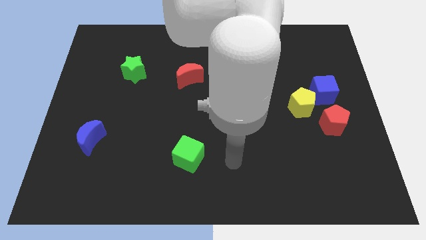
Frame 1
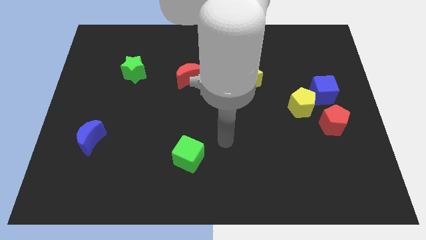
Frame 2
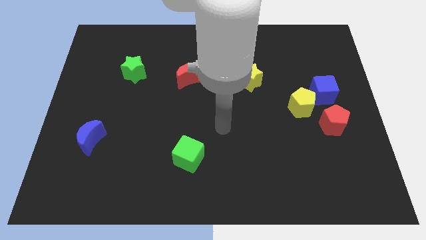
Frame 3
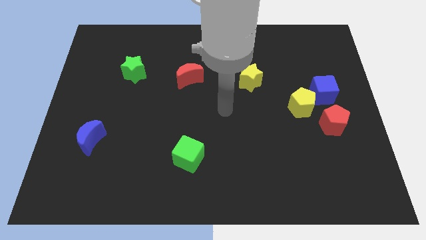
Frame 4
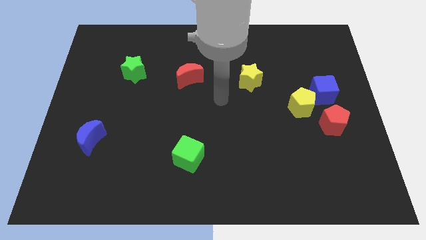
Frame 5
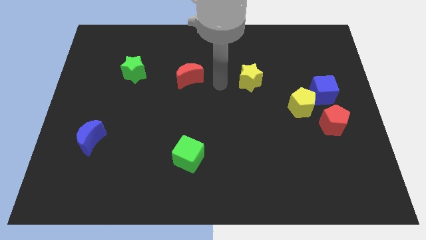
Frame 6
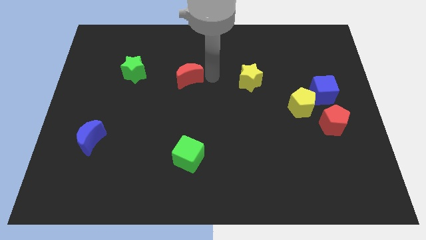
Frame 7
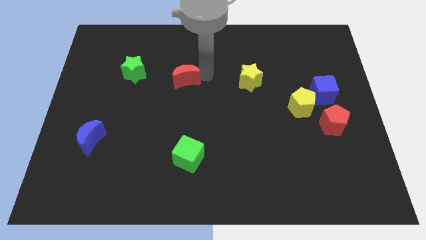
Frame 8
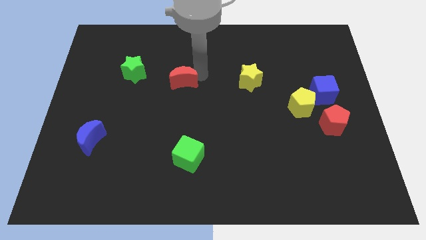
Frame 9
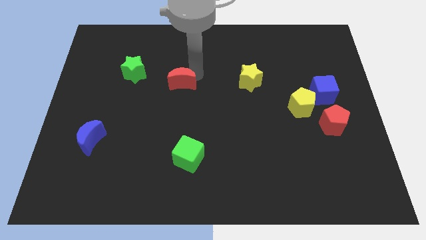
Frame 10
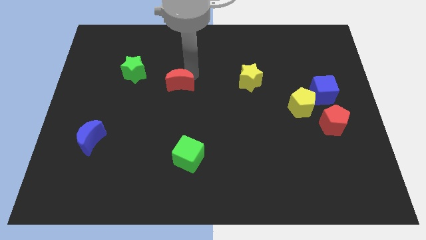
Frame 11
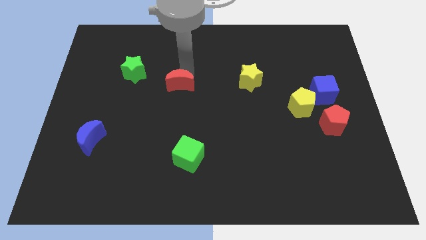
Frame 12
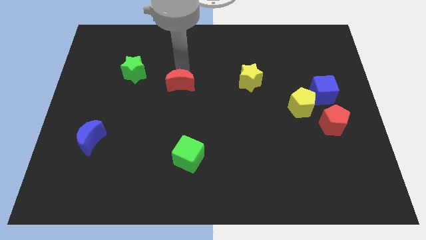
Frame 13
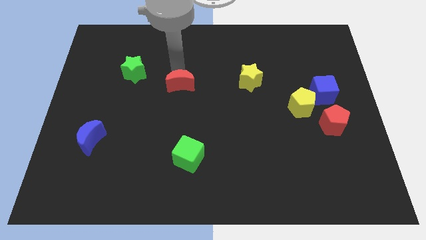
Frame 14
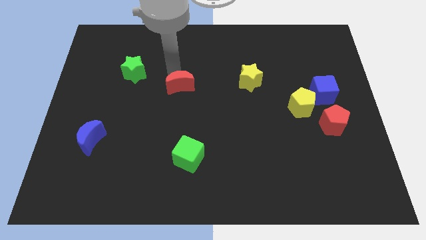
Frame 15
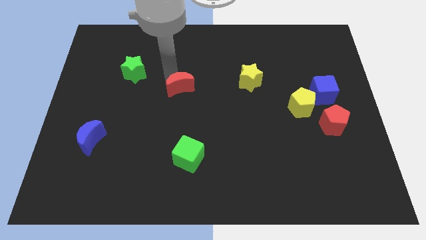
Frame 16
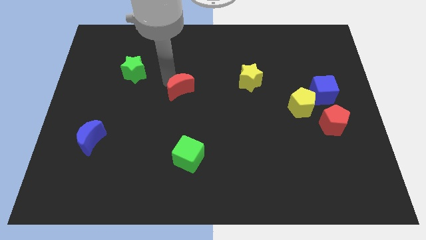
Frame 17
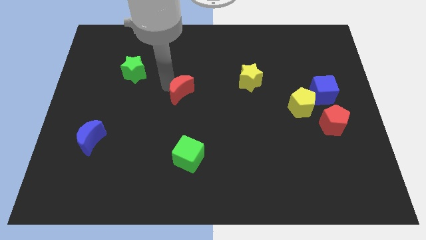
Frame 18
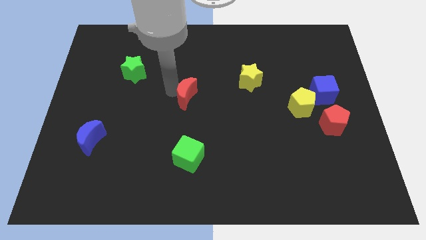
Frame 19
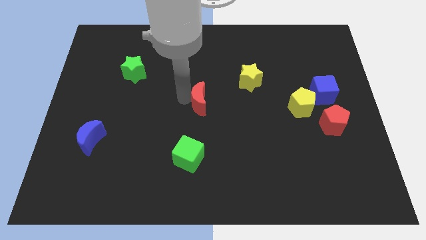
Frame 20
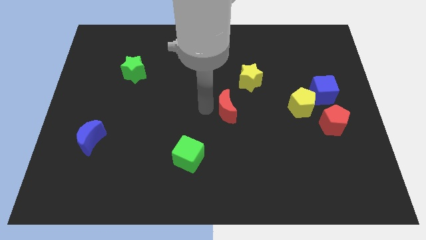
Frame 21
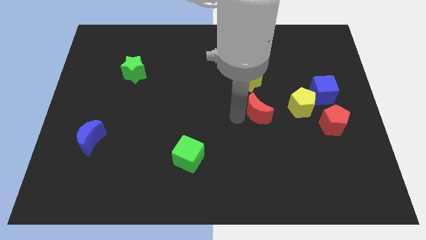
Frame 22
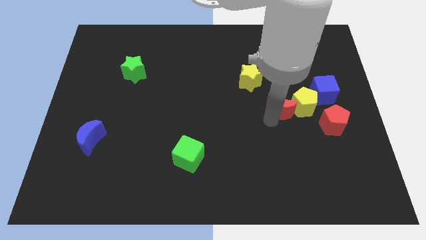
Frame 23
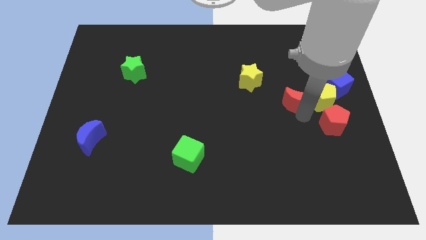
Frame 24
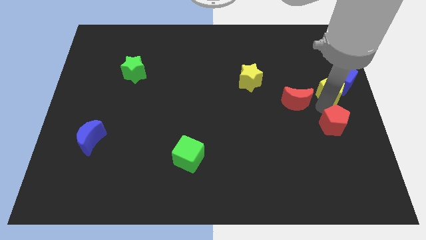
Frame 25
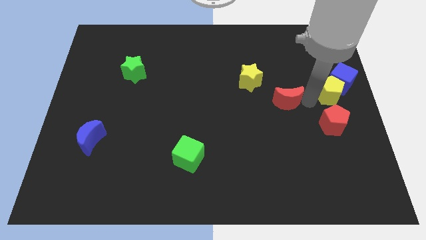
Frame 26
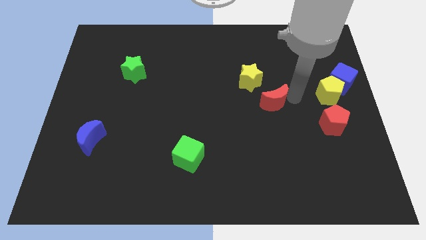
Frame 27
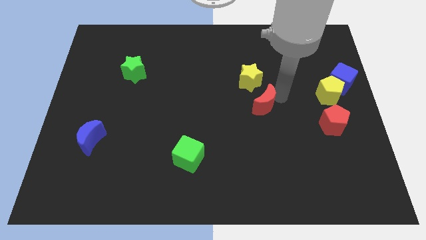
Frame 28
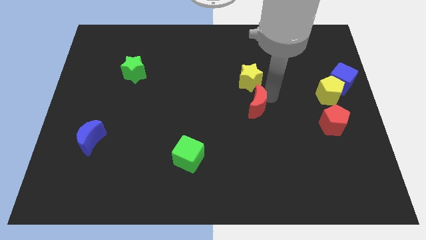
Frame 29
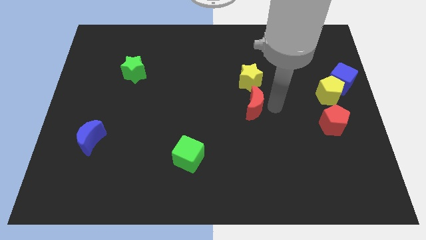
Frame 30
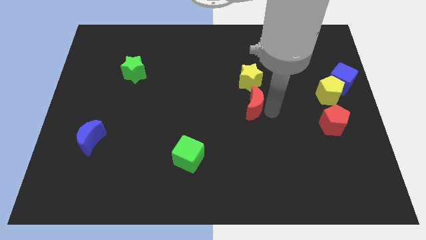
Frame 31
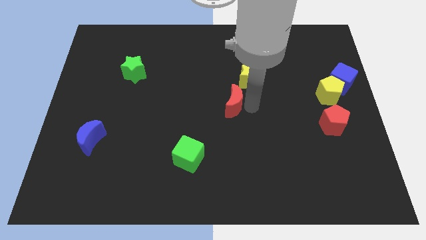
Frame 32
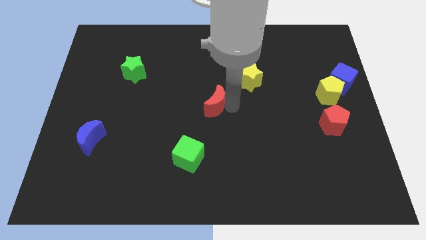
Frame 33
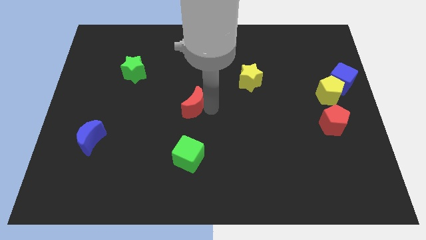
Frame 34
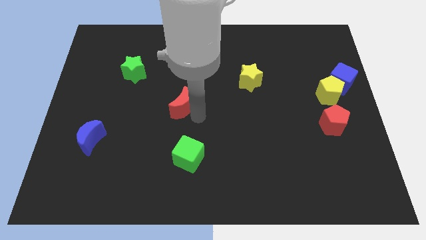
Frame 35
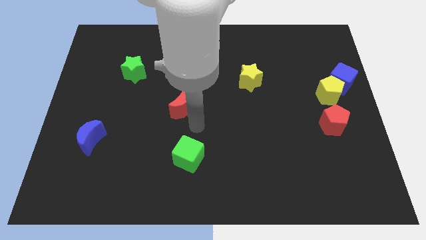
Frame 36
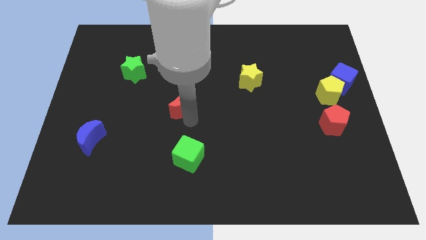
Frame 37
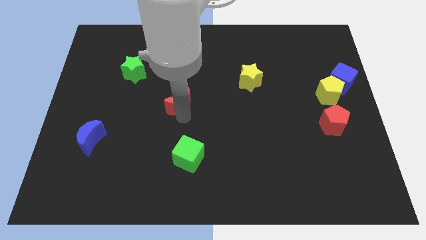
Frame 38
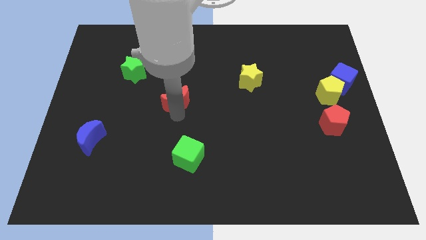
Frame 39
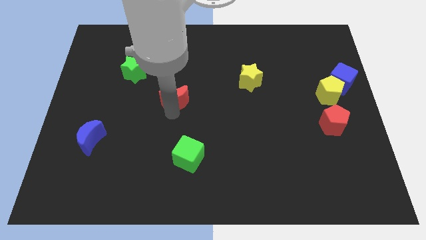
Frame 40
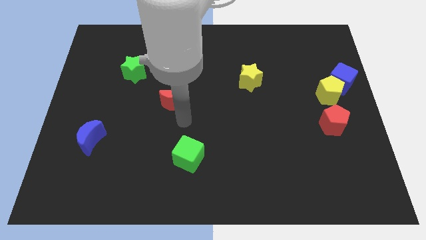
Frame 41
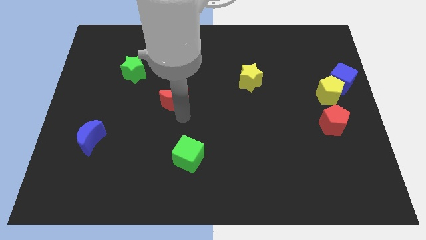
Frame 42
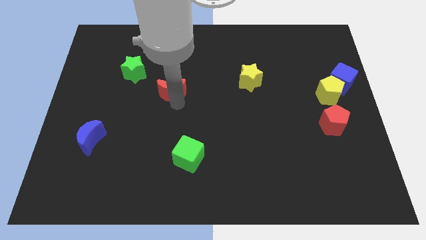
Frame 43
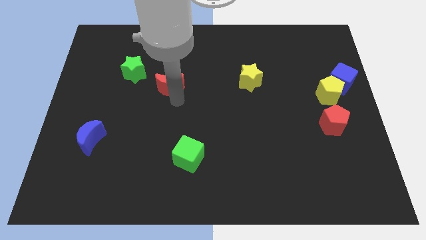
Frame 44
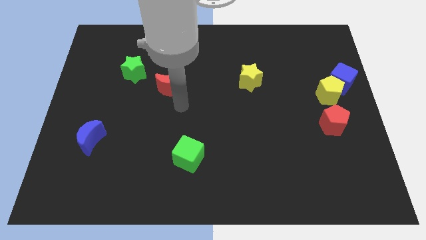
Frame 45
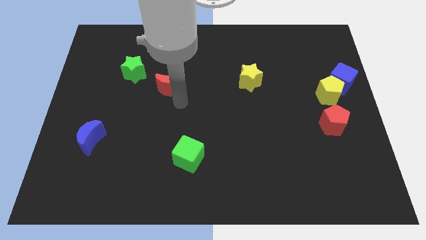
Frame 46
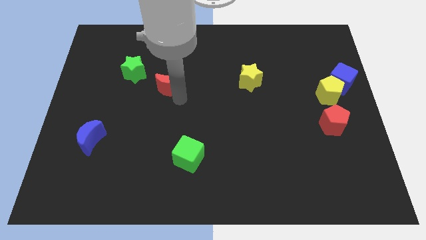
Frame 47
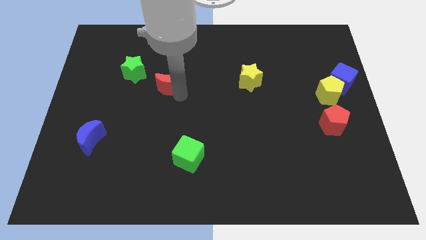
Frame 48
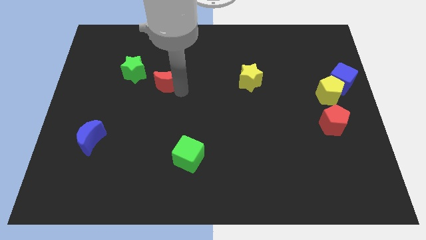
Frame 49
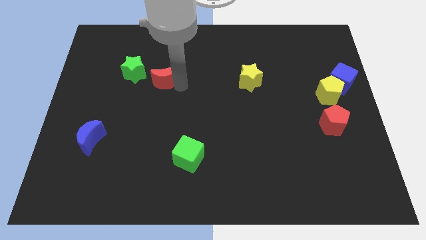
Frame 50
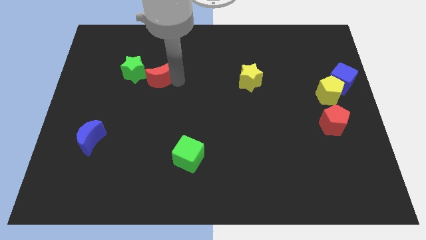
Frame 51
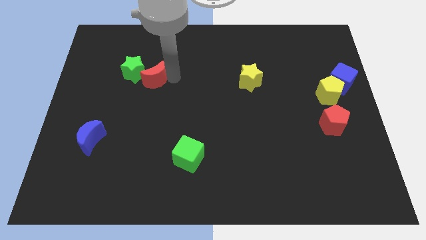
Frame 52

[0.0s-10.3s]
move the red moon next to the green star
